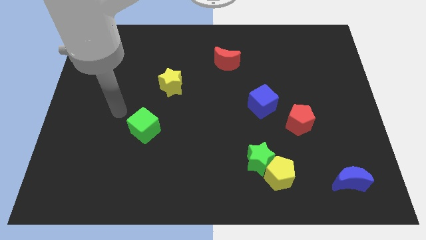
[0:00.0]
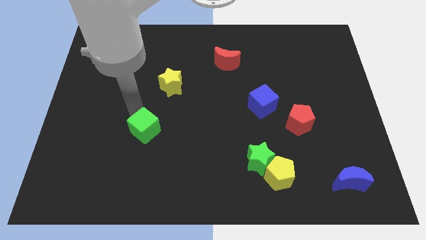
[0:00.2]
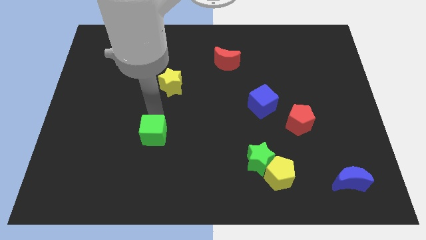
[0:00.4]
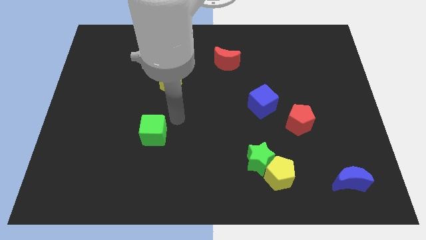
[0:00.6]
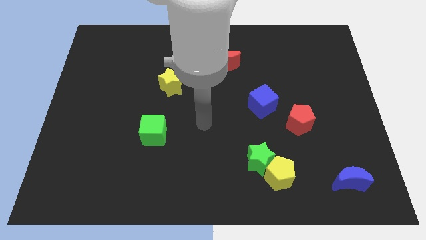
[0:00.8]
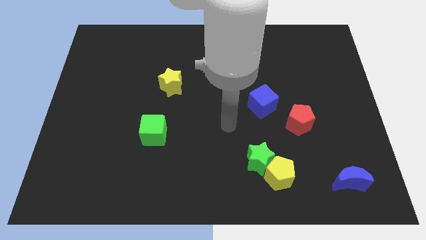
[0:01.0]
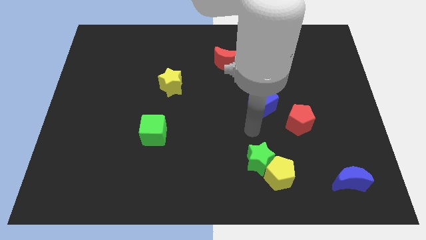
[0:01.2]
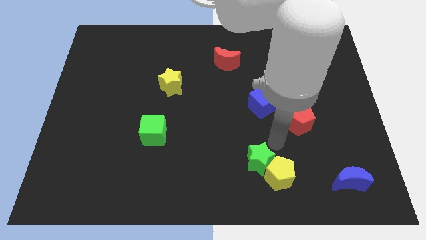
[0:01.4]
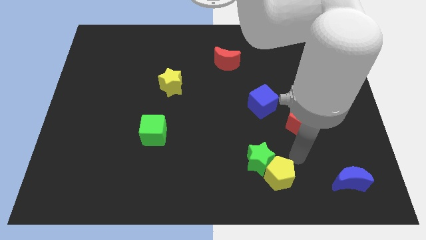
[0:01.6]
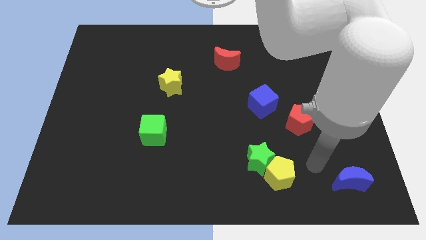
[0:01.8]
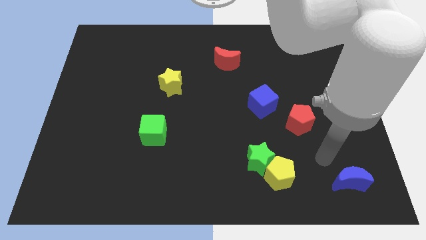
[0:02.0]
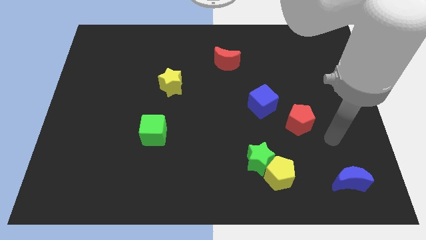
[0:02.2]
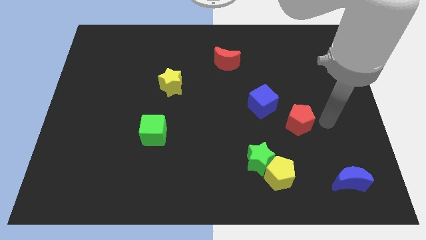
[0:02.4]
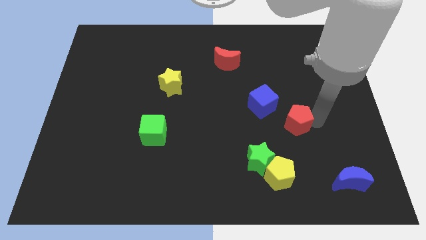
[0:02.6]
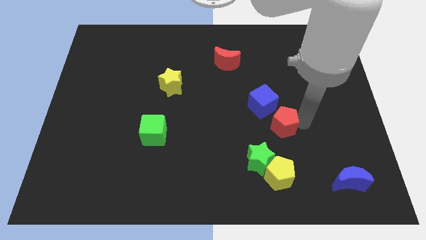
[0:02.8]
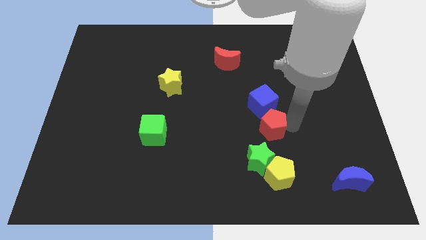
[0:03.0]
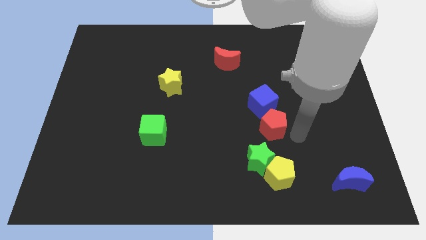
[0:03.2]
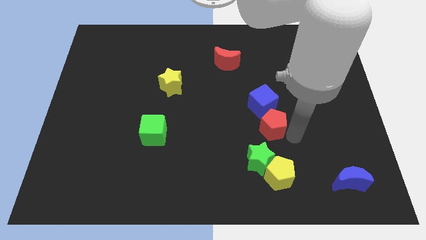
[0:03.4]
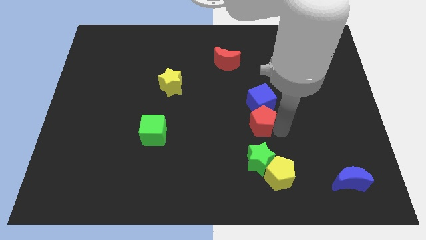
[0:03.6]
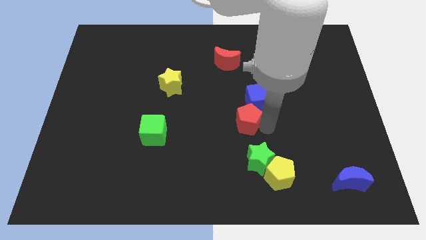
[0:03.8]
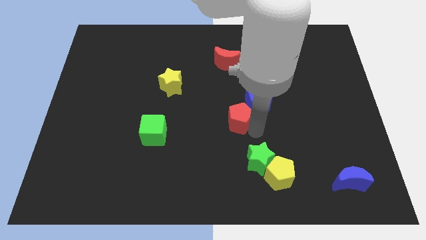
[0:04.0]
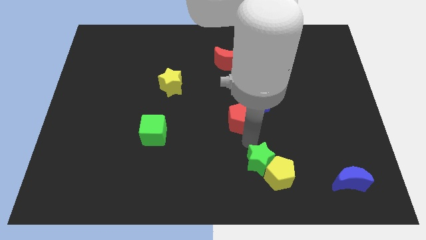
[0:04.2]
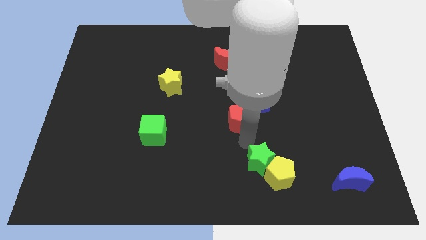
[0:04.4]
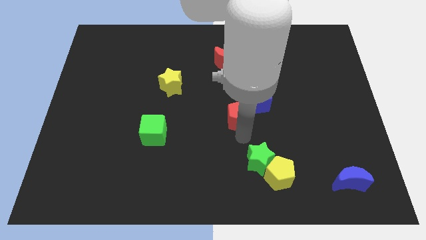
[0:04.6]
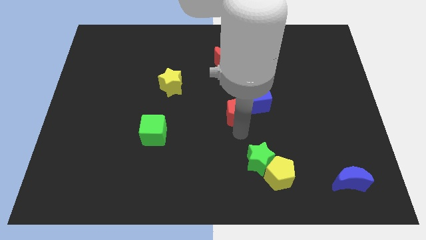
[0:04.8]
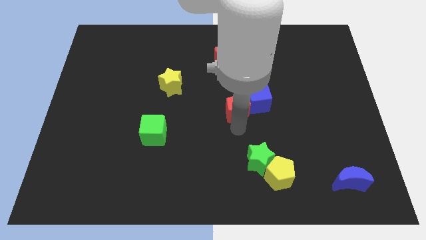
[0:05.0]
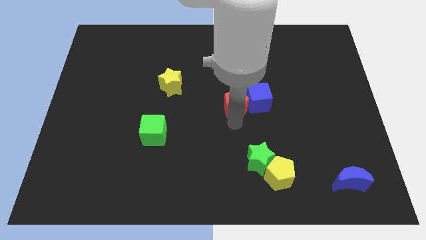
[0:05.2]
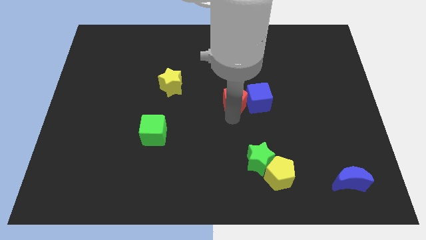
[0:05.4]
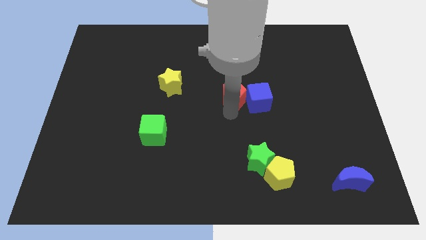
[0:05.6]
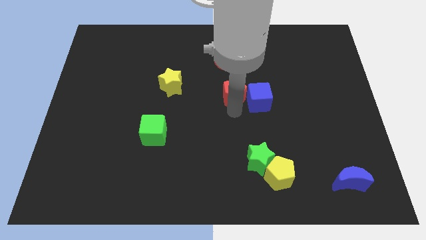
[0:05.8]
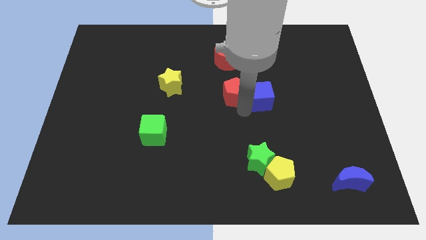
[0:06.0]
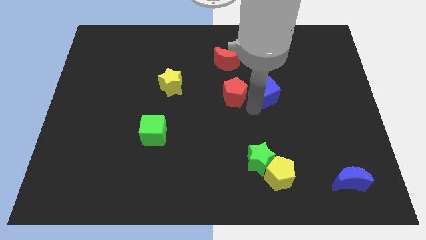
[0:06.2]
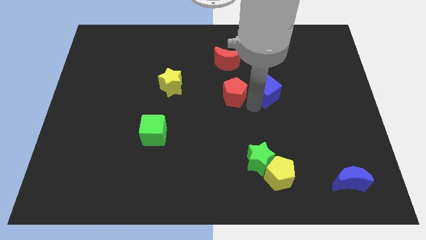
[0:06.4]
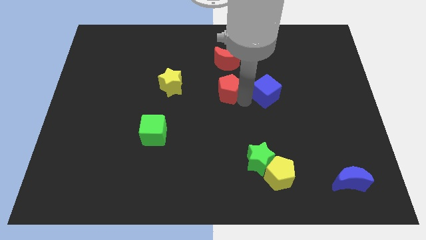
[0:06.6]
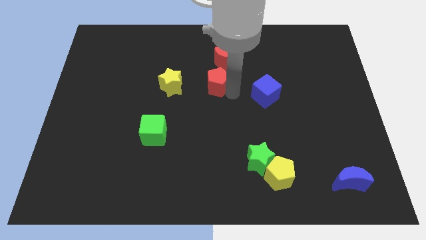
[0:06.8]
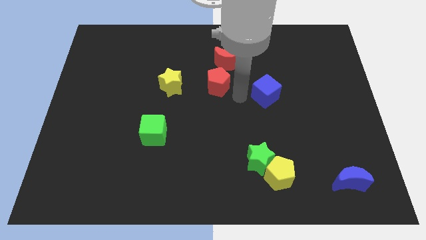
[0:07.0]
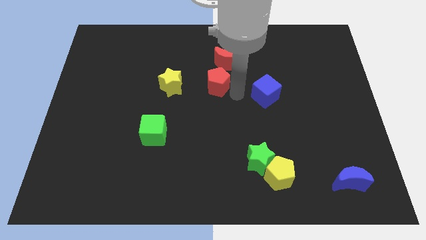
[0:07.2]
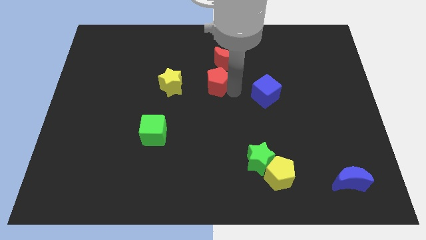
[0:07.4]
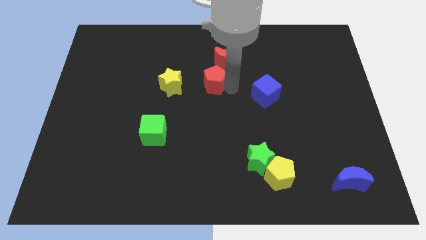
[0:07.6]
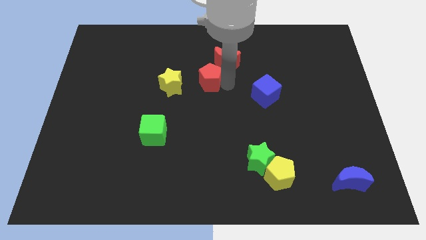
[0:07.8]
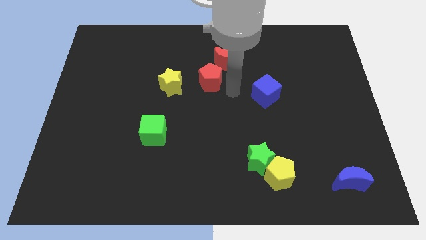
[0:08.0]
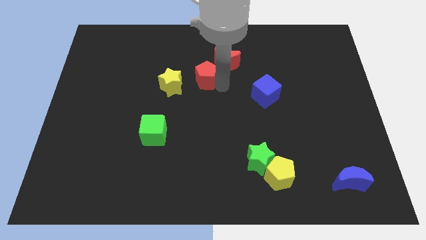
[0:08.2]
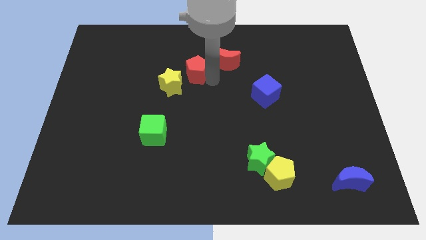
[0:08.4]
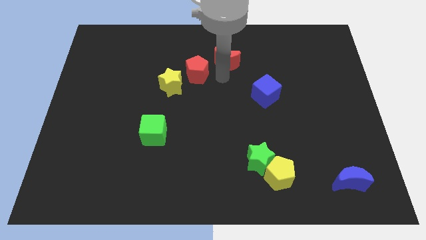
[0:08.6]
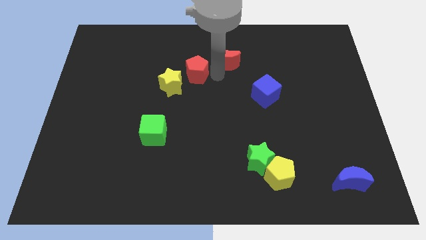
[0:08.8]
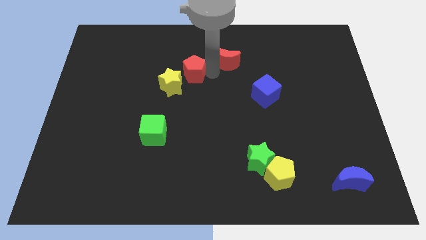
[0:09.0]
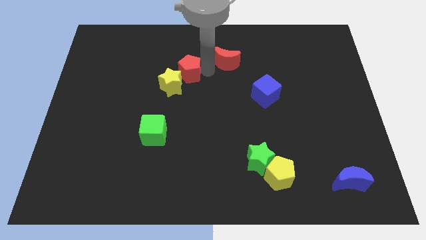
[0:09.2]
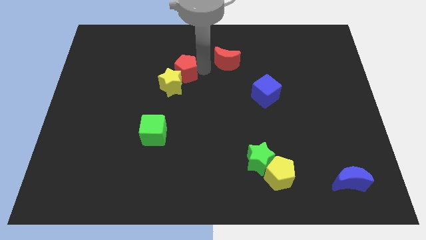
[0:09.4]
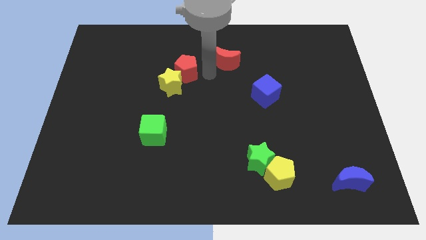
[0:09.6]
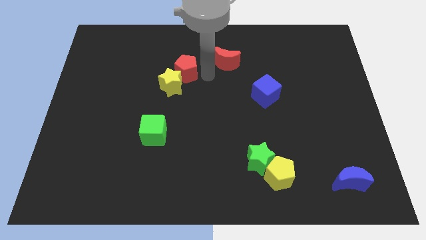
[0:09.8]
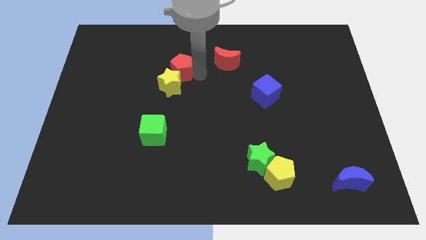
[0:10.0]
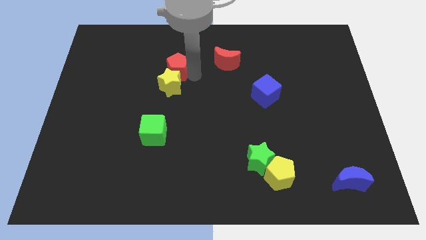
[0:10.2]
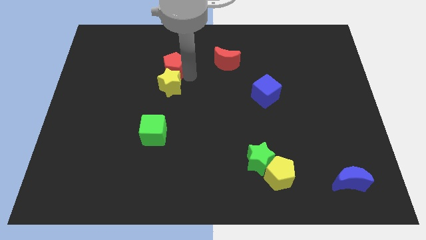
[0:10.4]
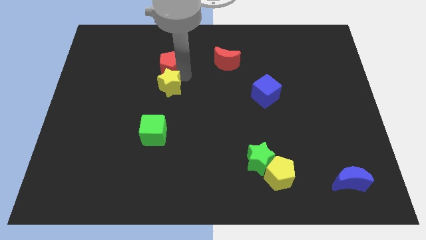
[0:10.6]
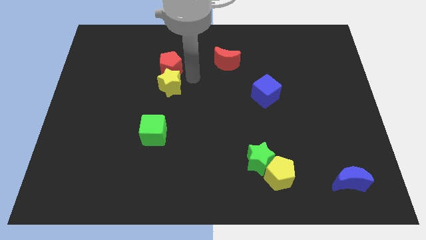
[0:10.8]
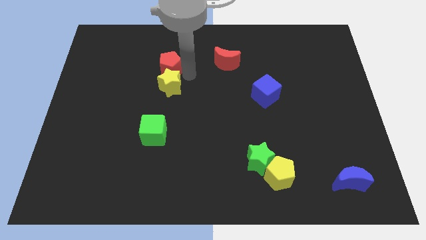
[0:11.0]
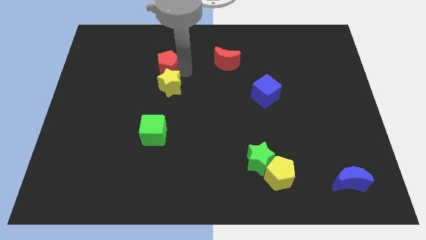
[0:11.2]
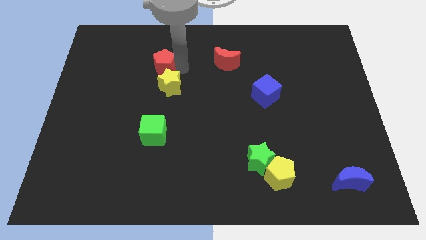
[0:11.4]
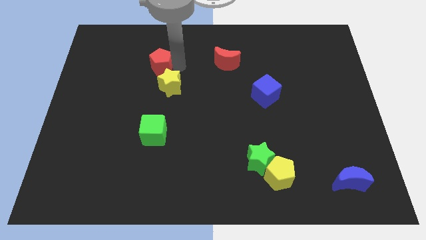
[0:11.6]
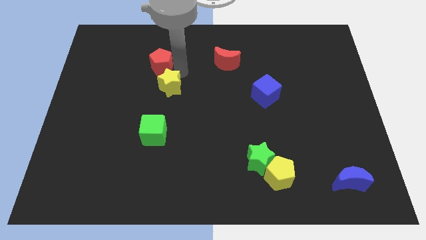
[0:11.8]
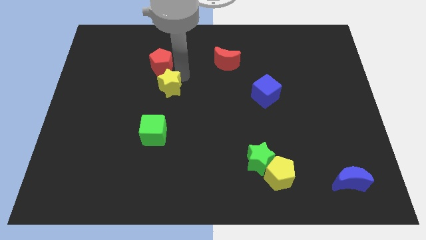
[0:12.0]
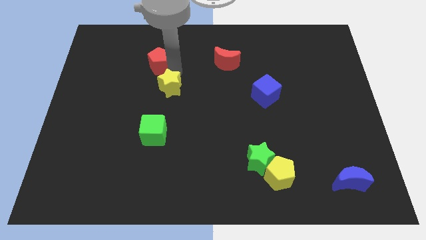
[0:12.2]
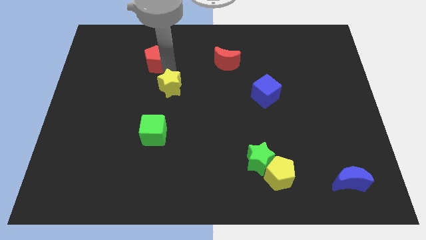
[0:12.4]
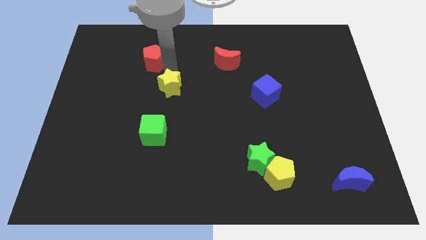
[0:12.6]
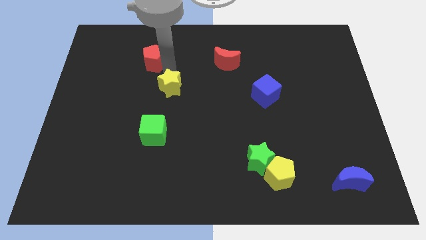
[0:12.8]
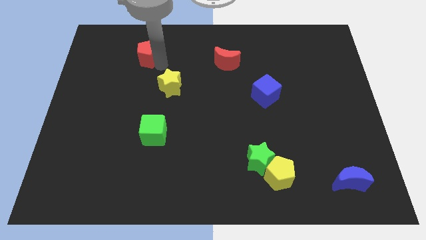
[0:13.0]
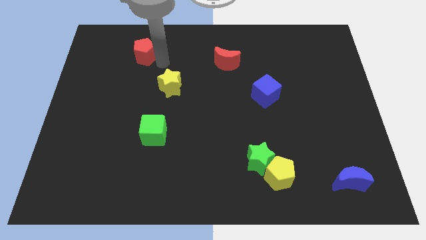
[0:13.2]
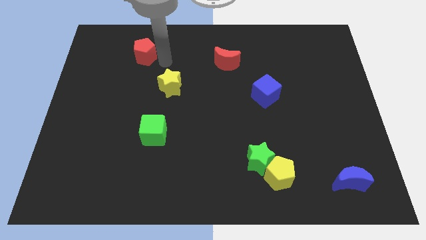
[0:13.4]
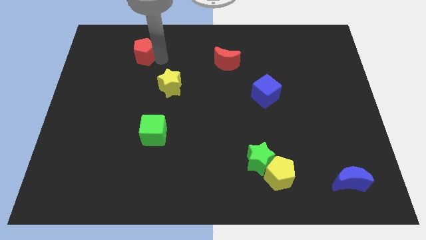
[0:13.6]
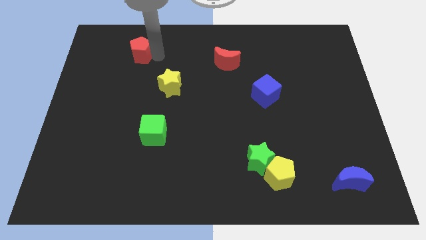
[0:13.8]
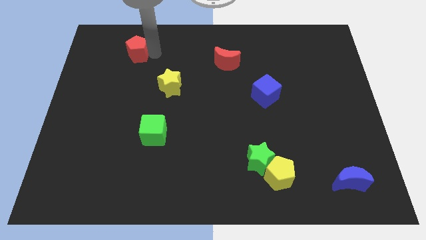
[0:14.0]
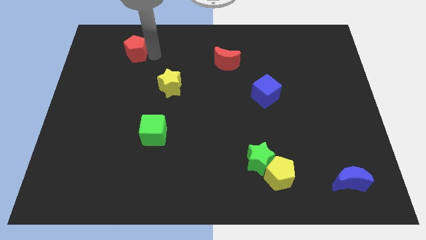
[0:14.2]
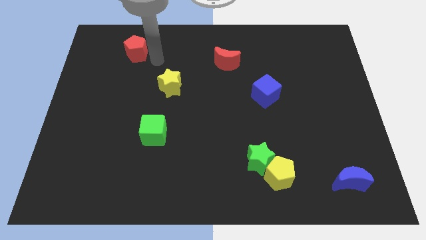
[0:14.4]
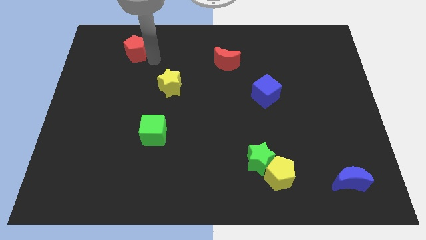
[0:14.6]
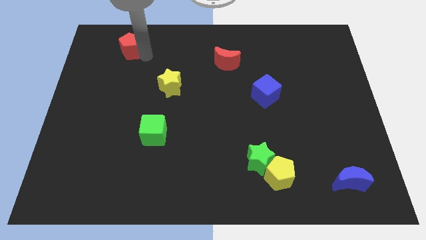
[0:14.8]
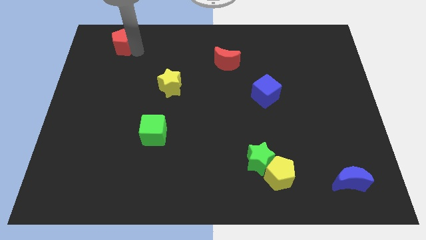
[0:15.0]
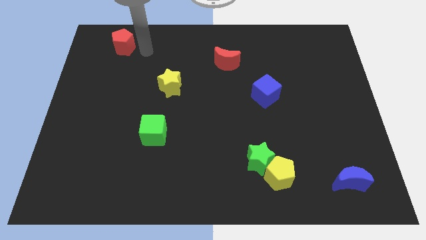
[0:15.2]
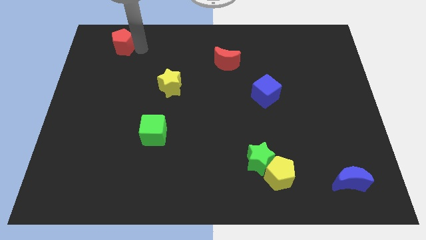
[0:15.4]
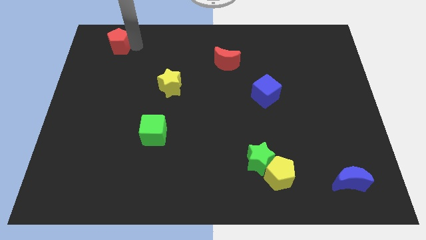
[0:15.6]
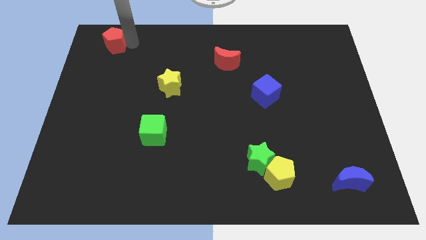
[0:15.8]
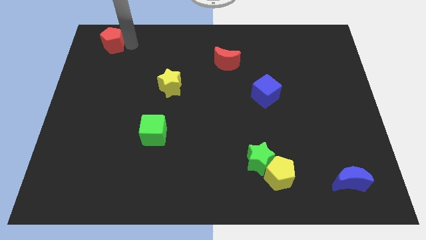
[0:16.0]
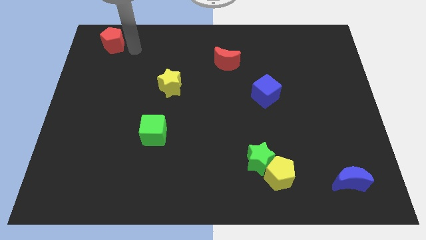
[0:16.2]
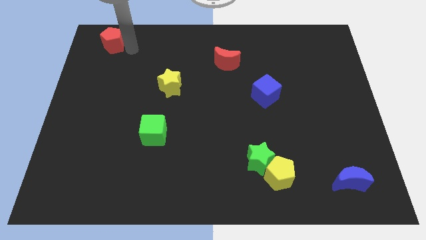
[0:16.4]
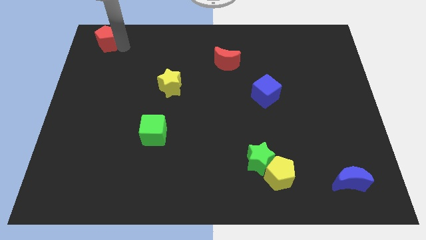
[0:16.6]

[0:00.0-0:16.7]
slide the red pentagon to the upper left corner
